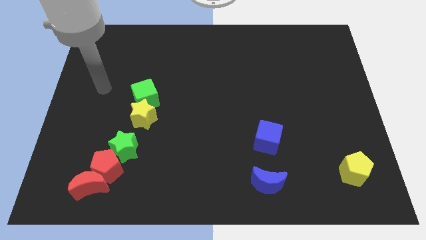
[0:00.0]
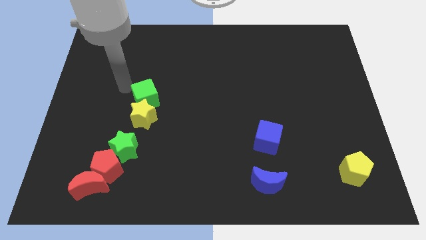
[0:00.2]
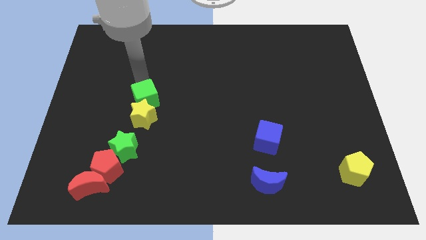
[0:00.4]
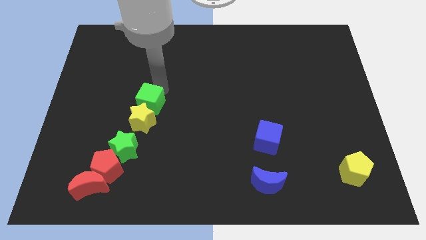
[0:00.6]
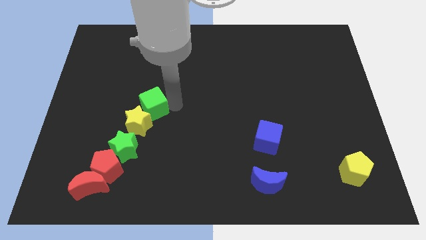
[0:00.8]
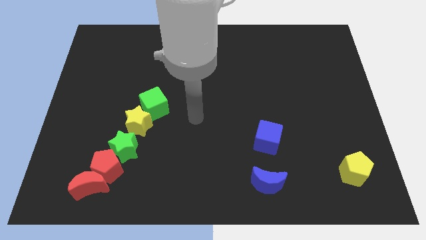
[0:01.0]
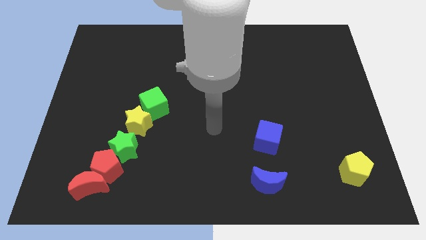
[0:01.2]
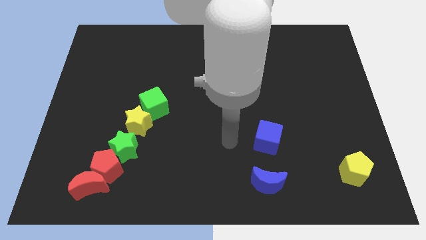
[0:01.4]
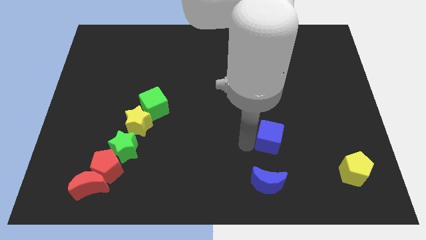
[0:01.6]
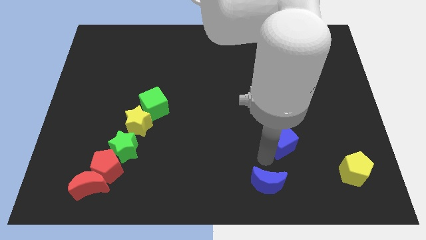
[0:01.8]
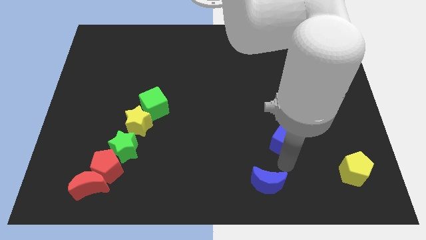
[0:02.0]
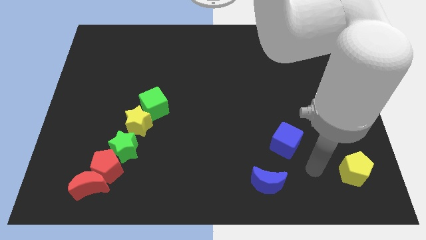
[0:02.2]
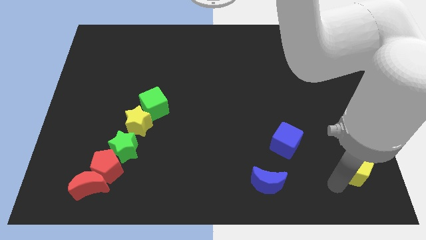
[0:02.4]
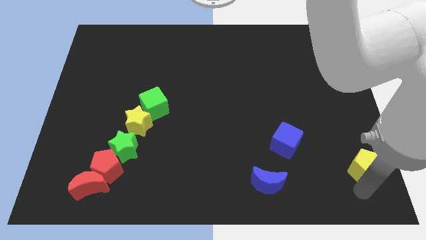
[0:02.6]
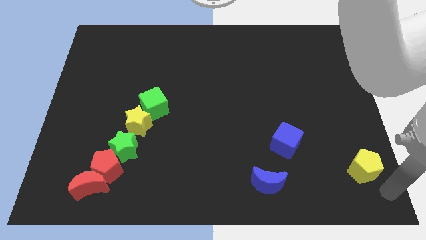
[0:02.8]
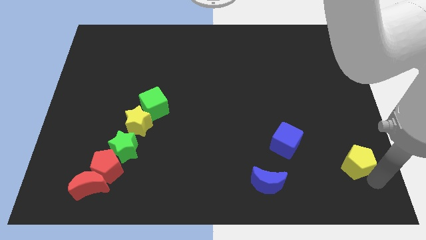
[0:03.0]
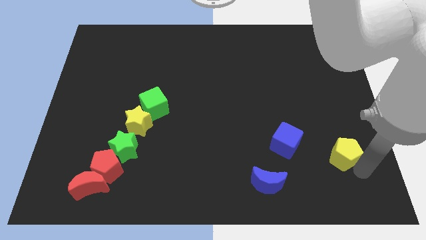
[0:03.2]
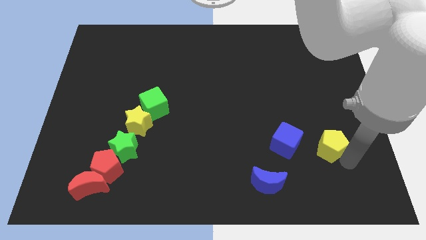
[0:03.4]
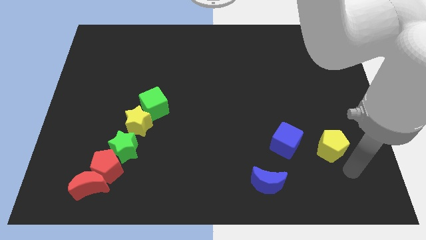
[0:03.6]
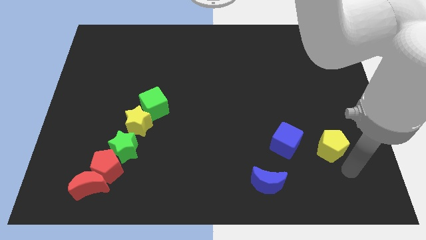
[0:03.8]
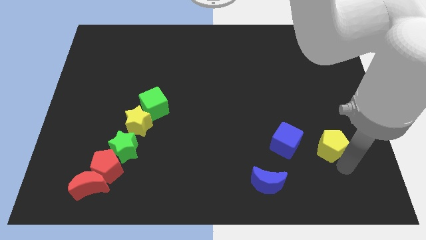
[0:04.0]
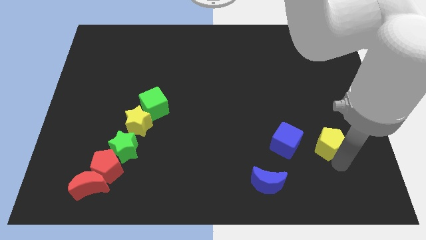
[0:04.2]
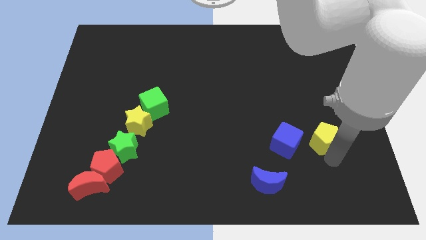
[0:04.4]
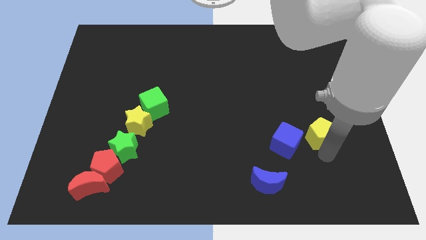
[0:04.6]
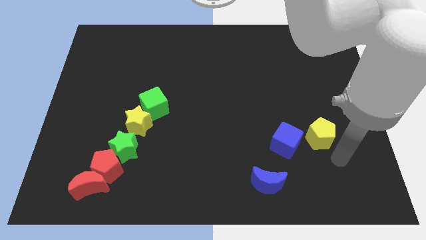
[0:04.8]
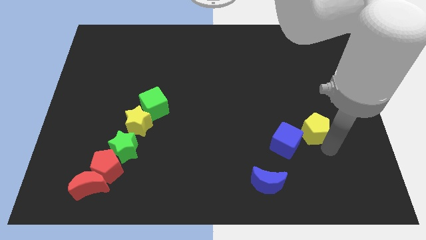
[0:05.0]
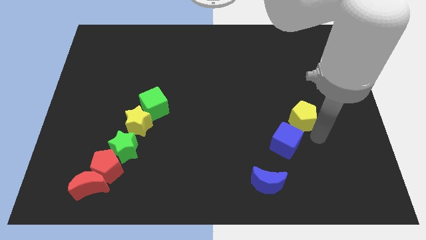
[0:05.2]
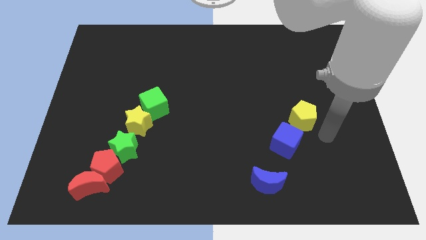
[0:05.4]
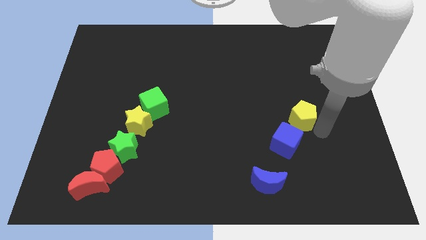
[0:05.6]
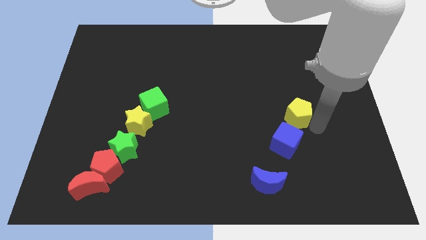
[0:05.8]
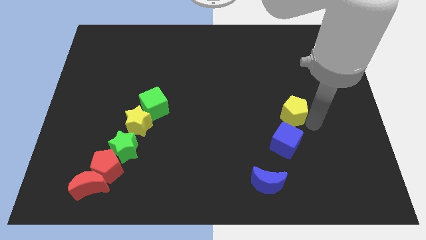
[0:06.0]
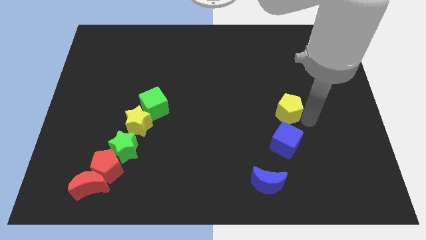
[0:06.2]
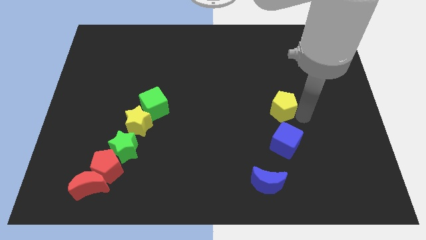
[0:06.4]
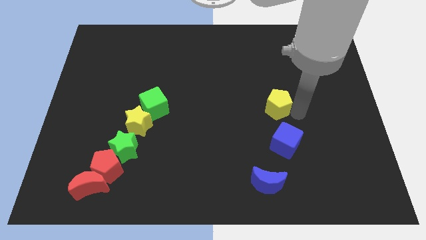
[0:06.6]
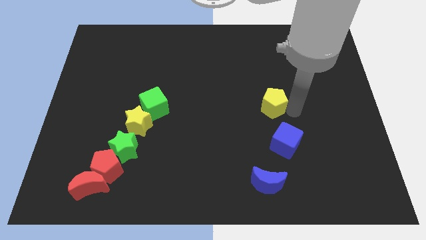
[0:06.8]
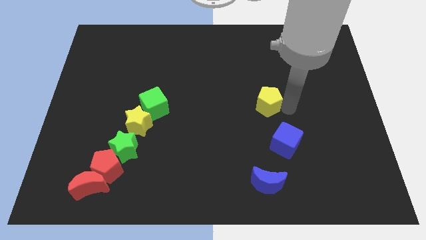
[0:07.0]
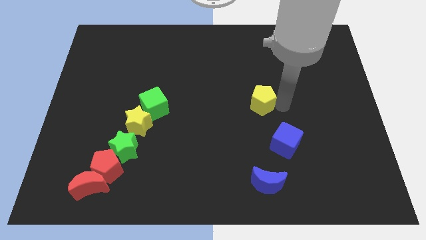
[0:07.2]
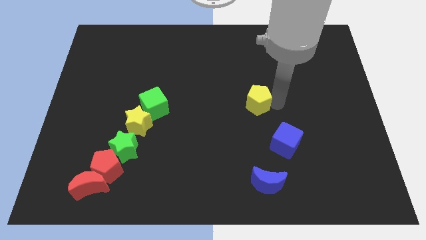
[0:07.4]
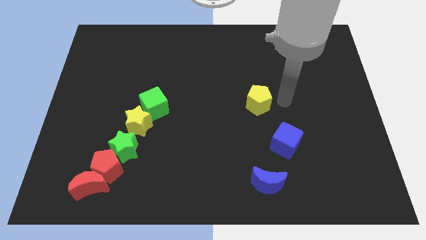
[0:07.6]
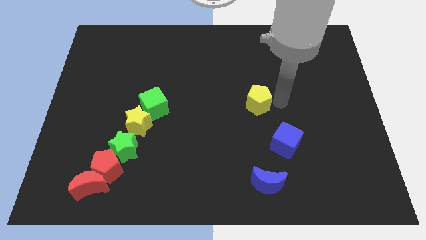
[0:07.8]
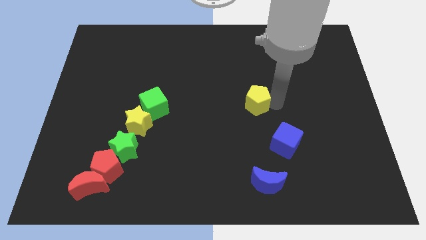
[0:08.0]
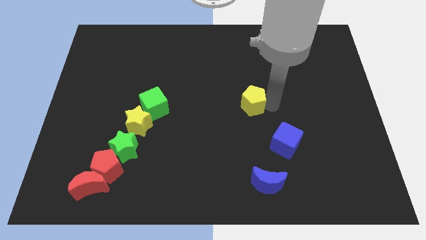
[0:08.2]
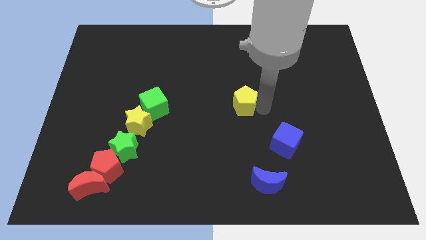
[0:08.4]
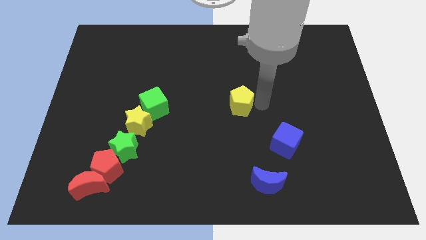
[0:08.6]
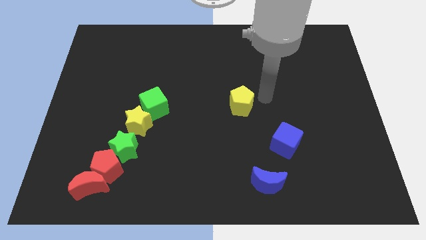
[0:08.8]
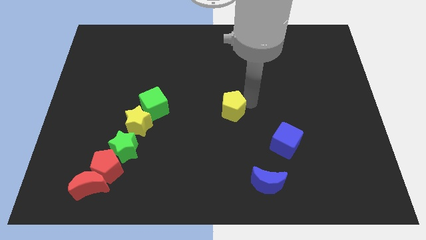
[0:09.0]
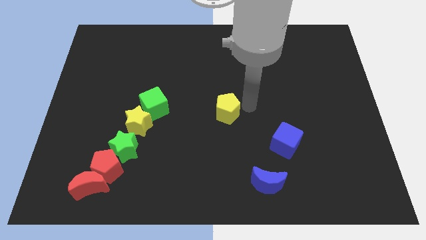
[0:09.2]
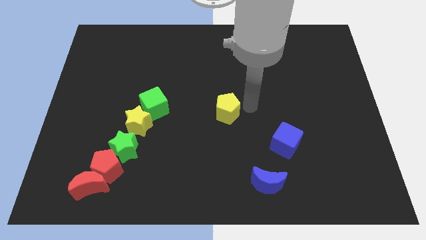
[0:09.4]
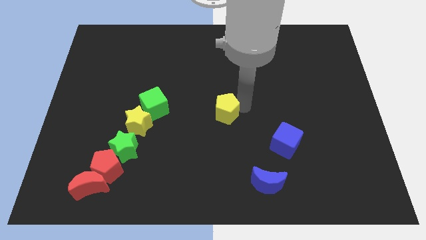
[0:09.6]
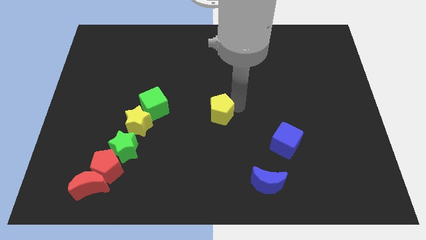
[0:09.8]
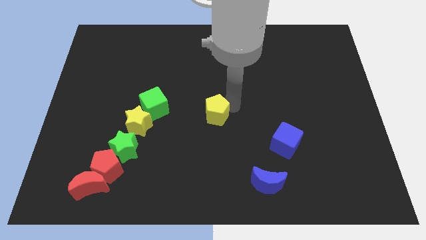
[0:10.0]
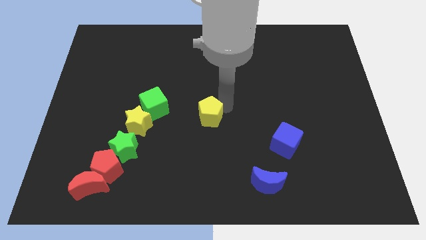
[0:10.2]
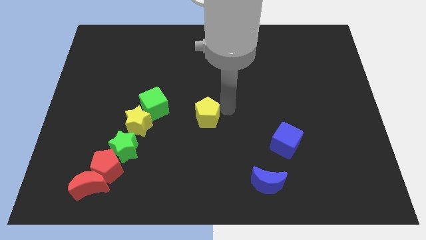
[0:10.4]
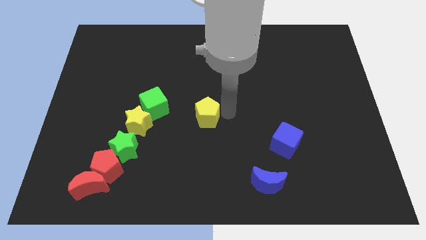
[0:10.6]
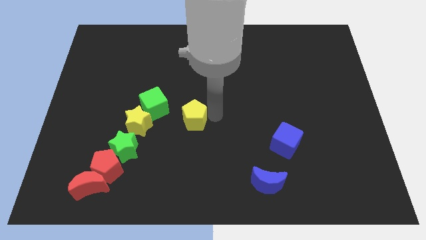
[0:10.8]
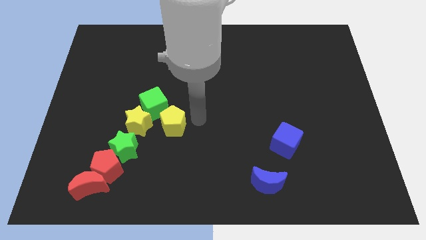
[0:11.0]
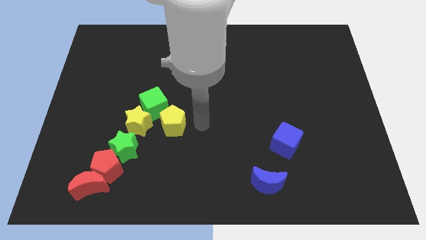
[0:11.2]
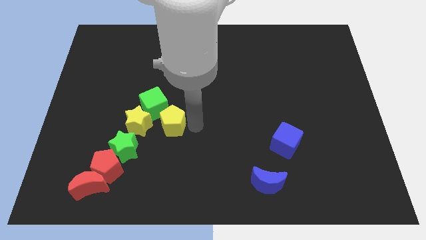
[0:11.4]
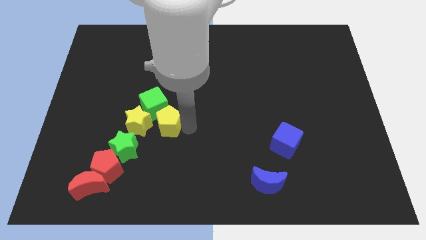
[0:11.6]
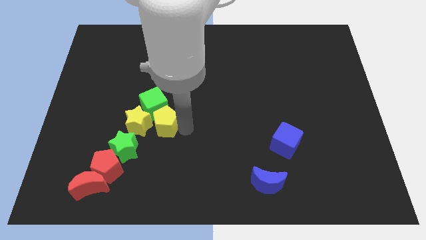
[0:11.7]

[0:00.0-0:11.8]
slide the yellow pentagon to the yellow star

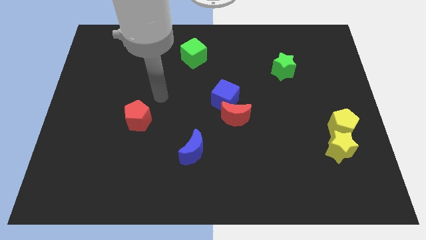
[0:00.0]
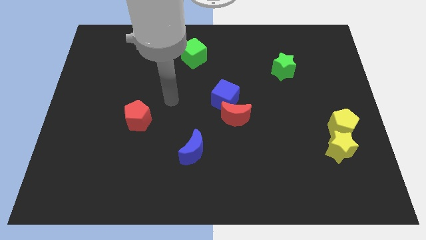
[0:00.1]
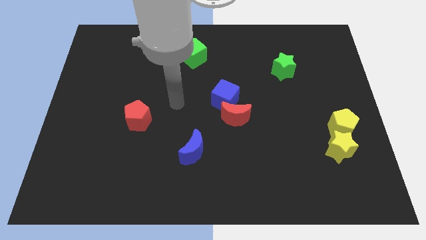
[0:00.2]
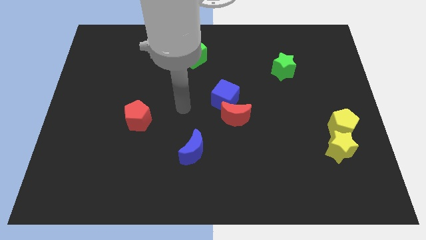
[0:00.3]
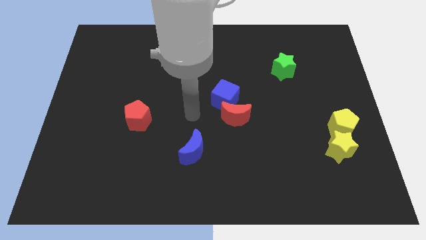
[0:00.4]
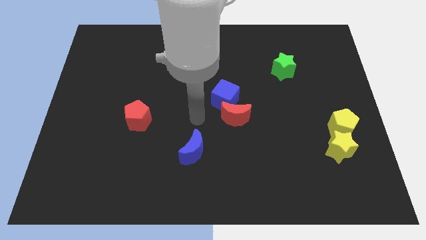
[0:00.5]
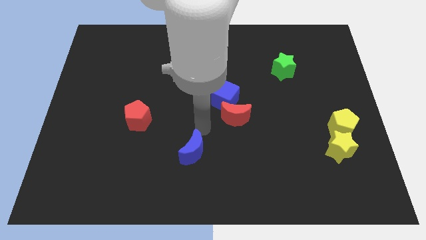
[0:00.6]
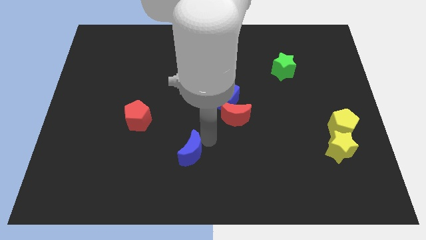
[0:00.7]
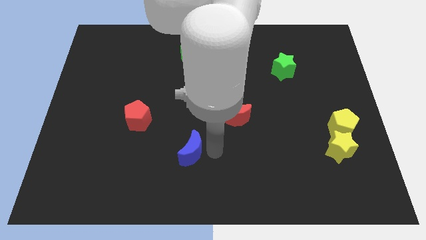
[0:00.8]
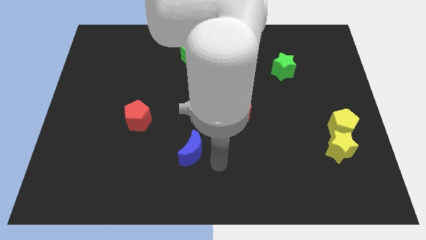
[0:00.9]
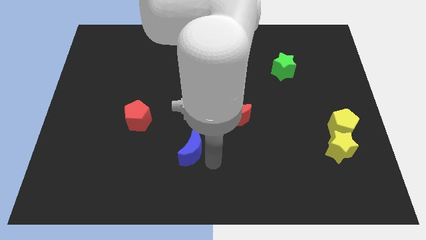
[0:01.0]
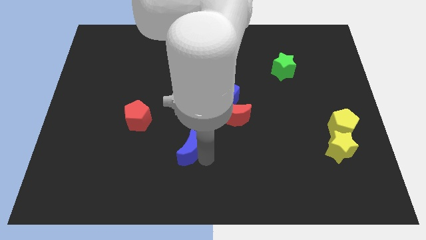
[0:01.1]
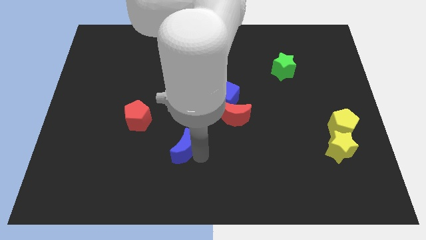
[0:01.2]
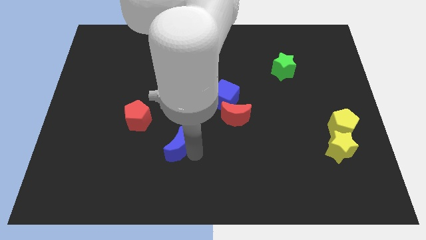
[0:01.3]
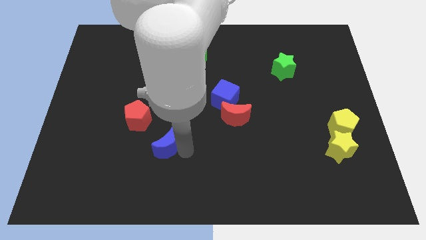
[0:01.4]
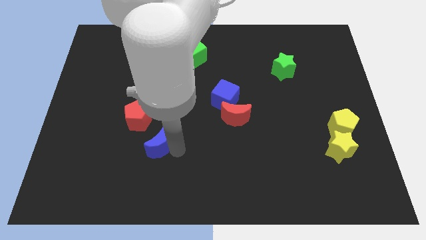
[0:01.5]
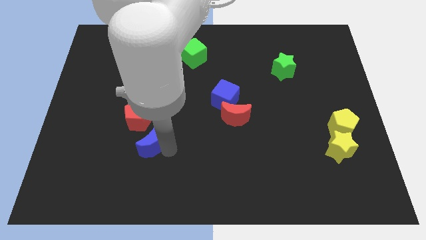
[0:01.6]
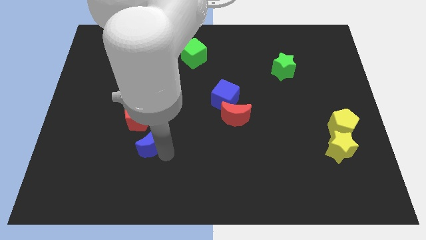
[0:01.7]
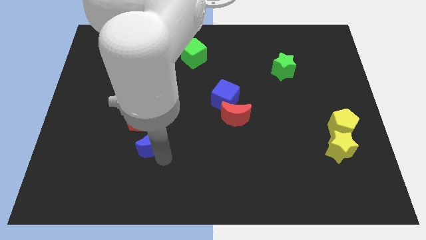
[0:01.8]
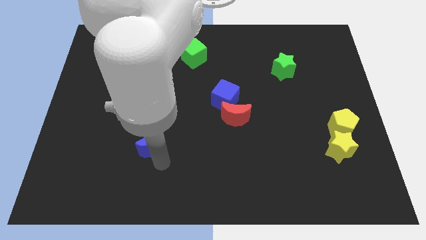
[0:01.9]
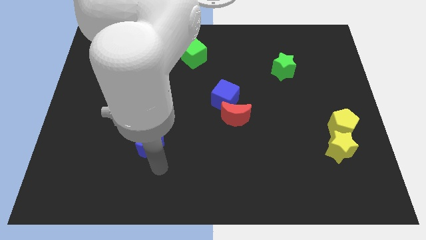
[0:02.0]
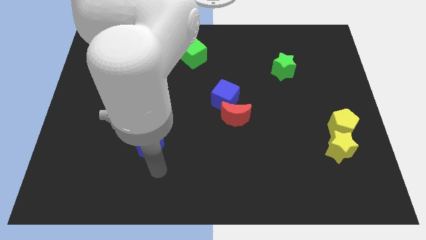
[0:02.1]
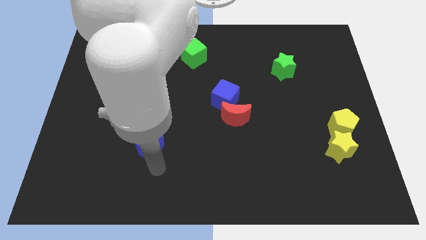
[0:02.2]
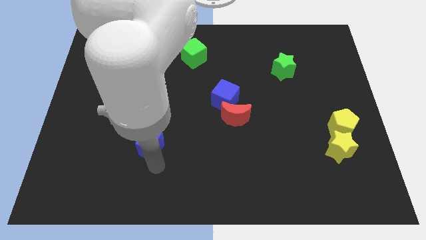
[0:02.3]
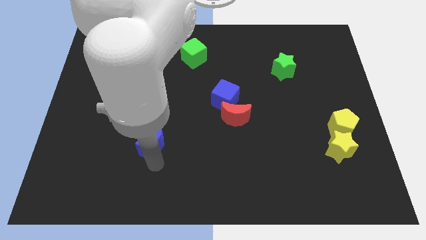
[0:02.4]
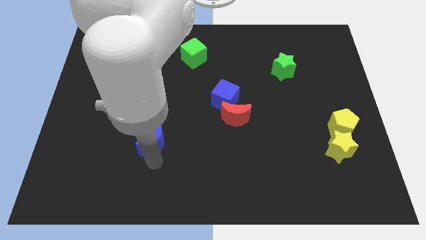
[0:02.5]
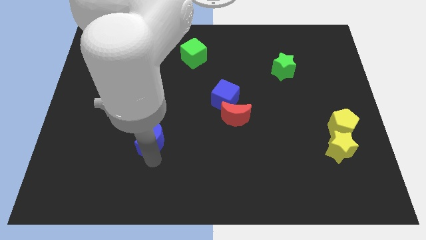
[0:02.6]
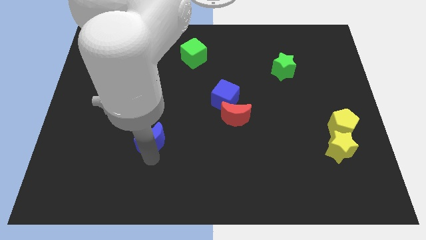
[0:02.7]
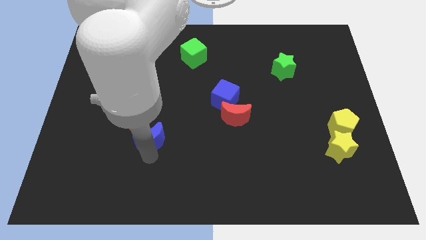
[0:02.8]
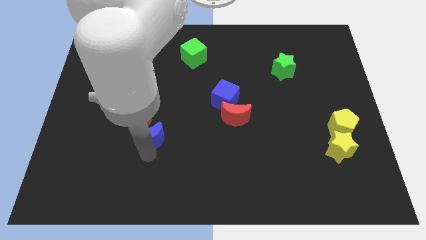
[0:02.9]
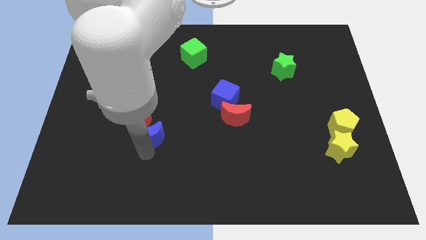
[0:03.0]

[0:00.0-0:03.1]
put the blue moon close to the red pentagon
